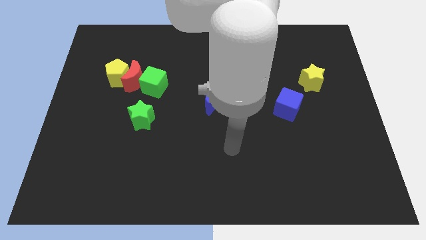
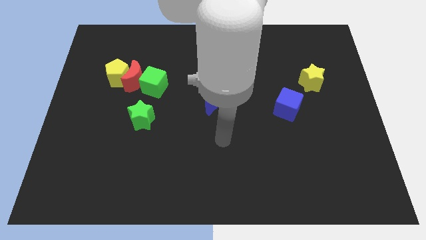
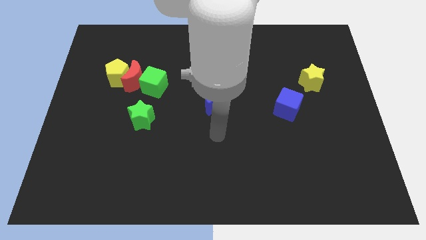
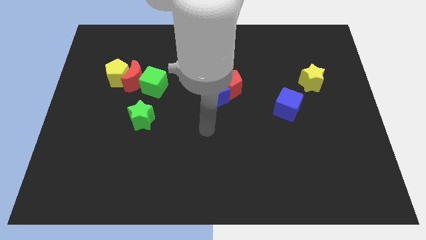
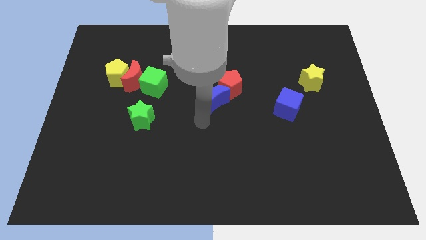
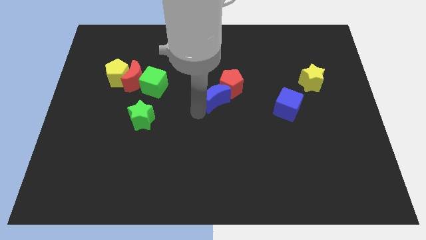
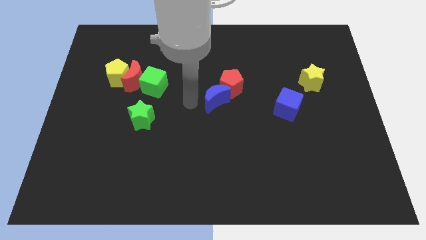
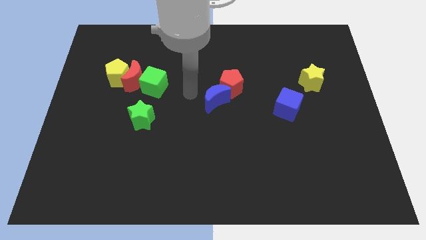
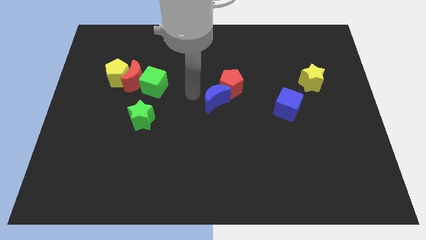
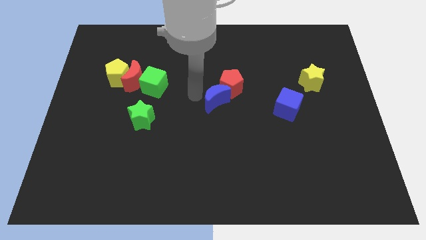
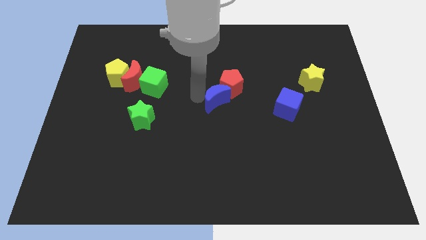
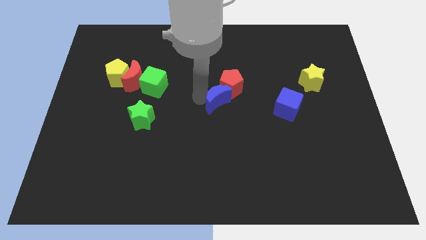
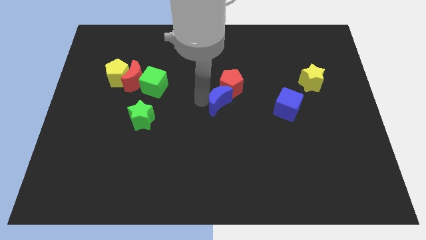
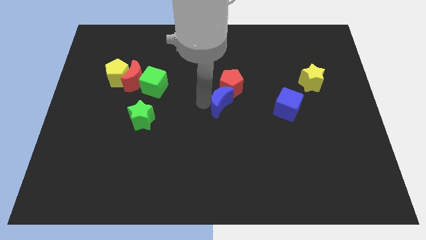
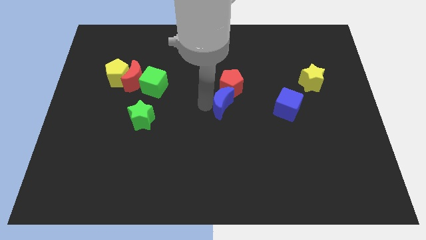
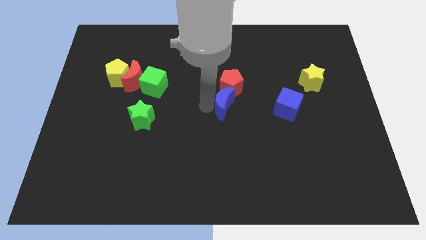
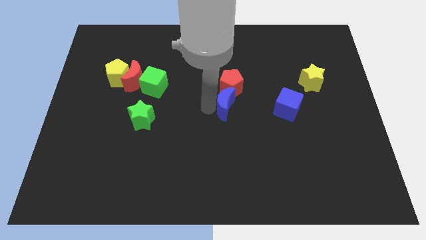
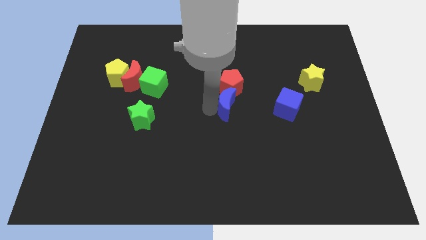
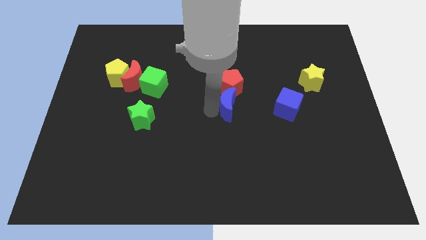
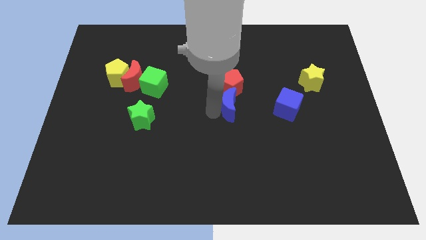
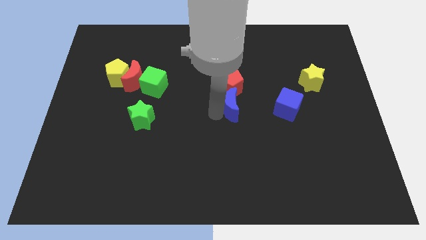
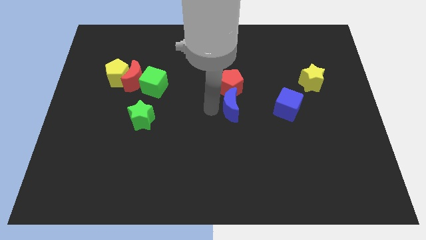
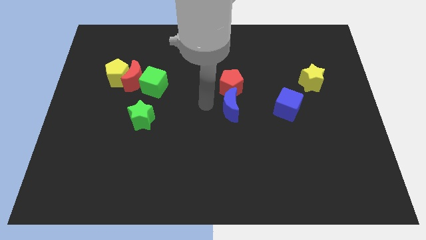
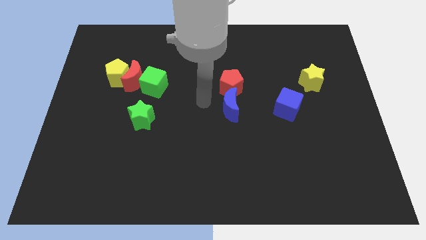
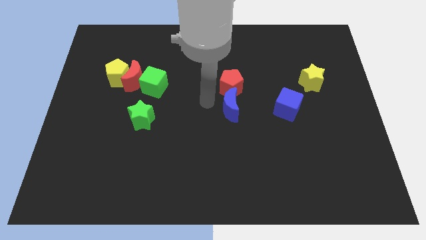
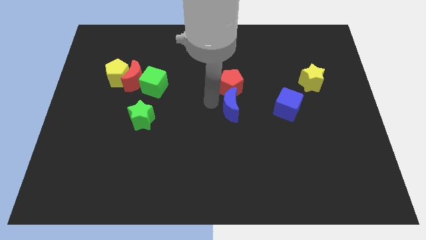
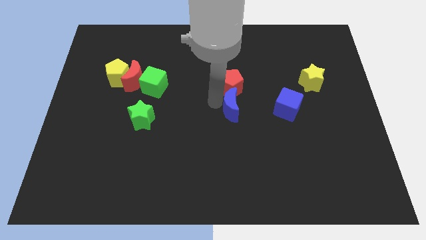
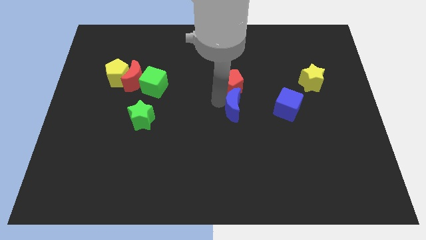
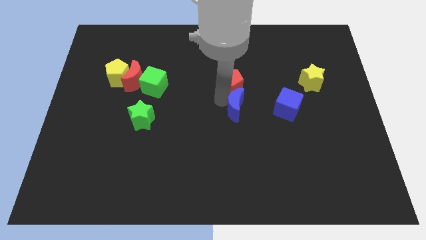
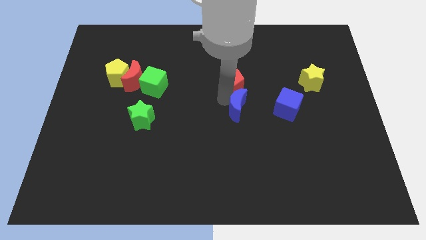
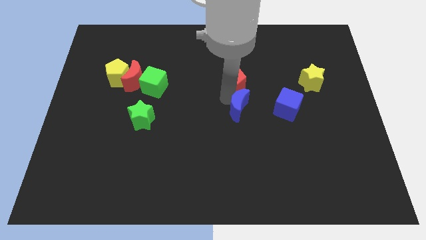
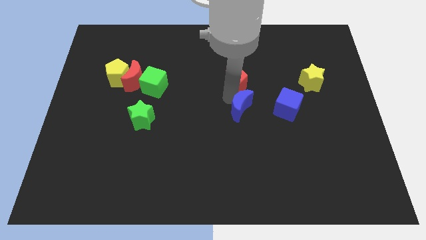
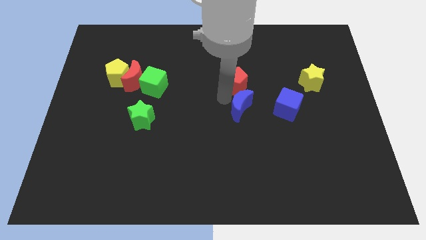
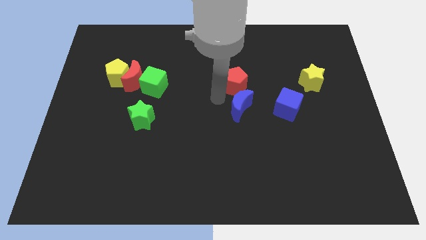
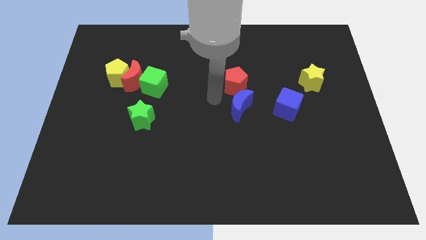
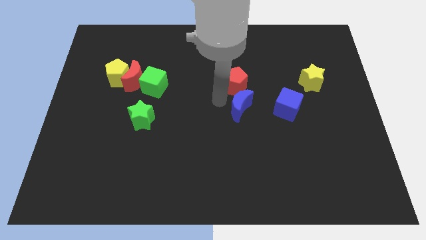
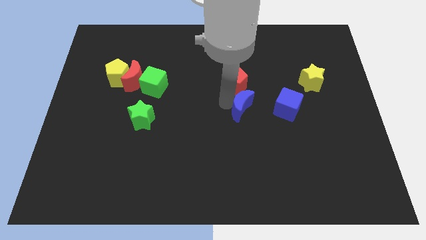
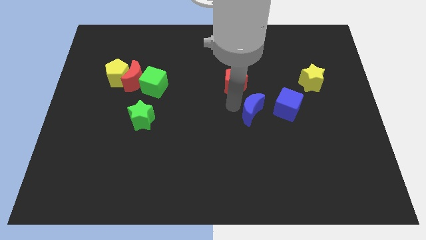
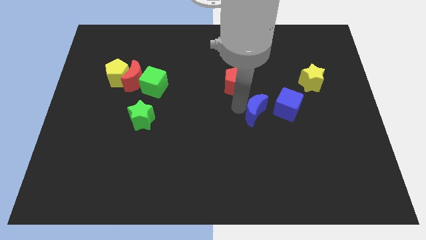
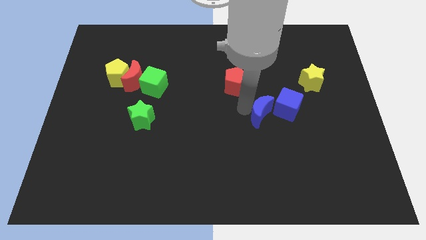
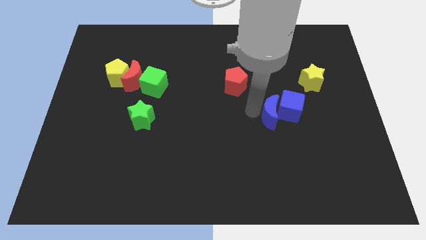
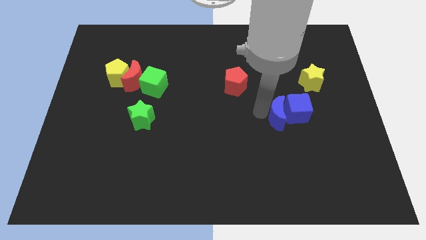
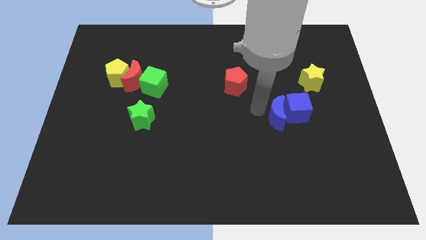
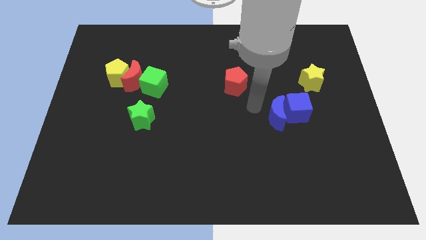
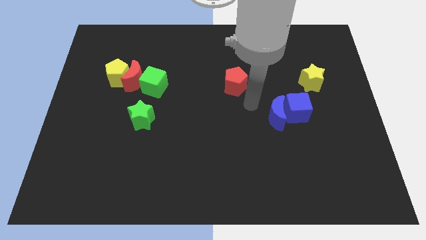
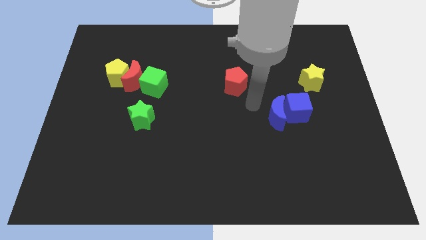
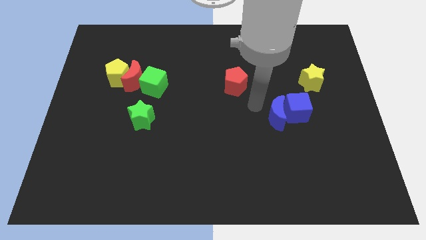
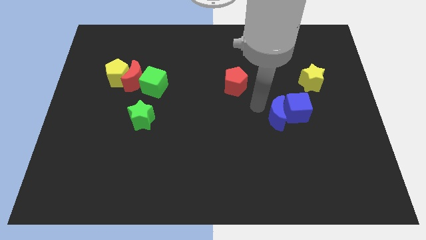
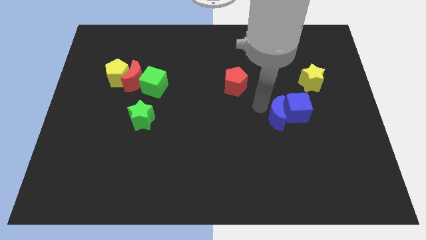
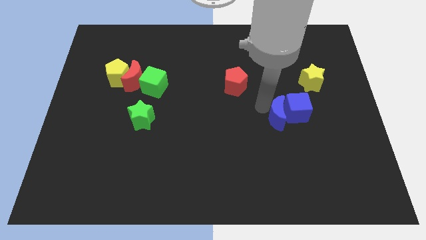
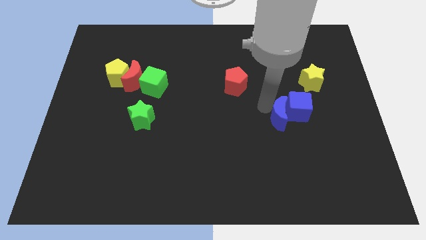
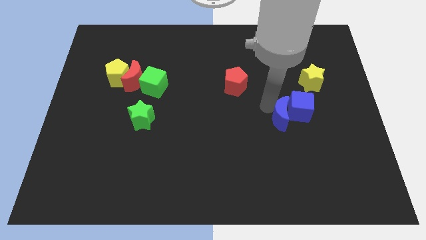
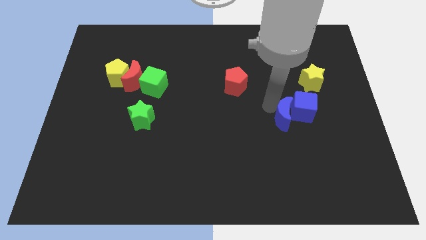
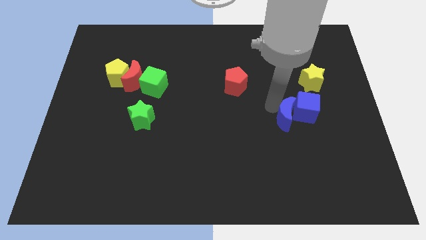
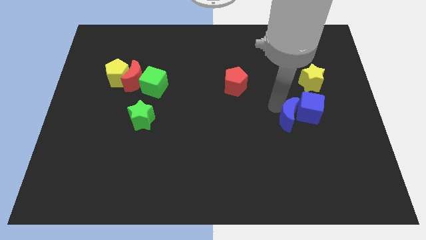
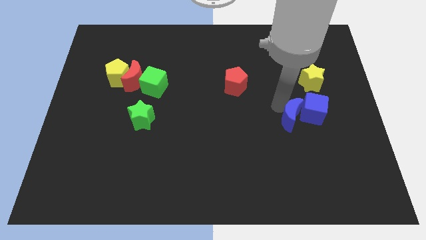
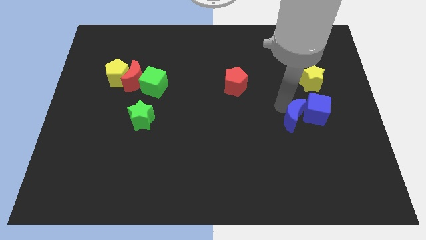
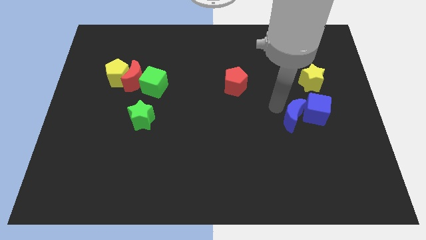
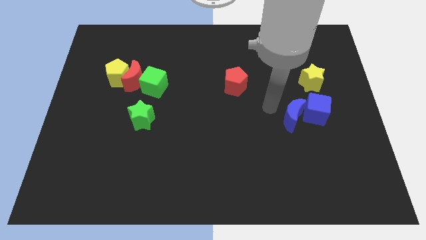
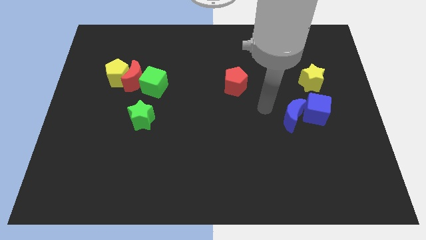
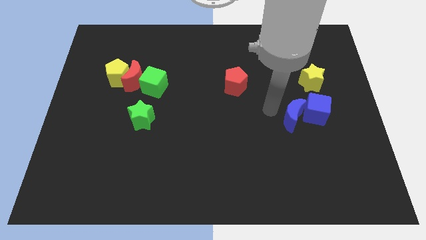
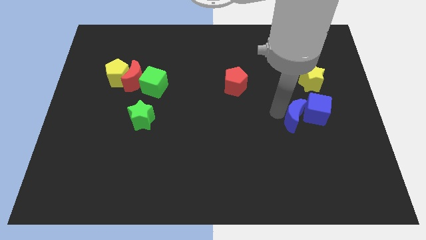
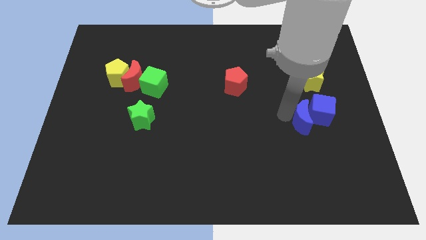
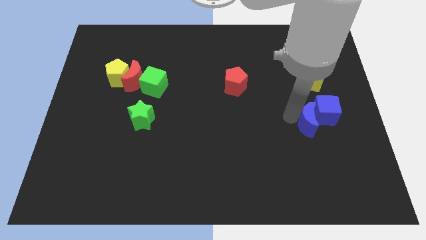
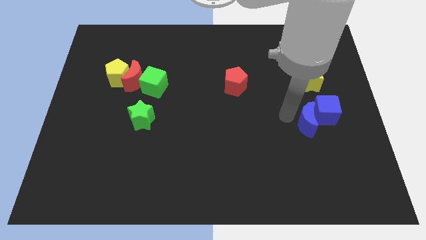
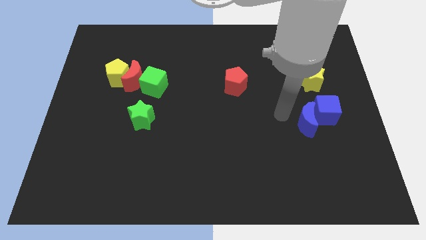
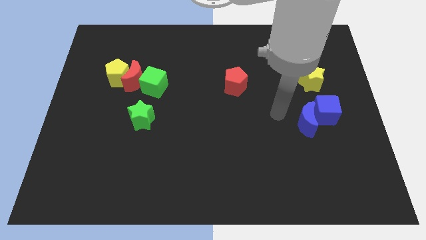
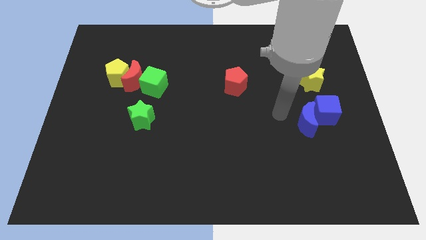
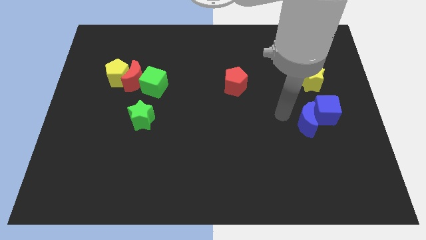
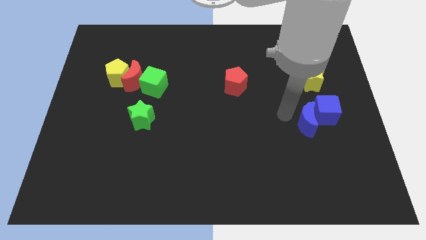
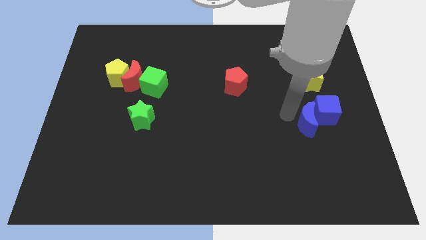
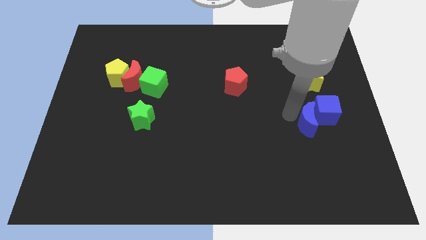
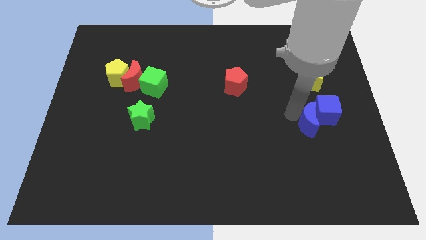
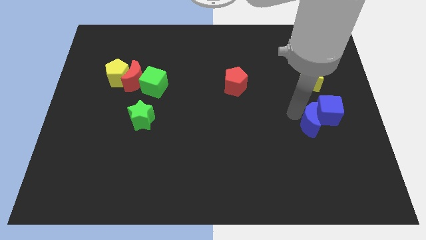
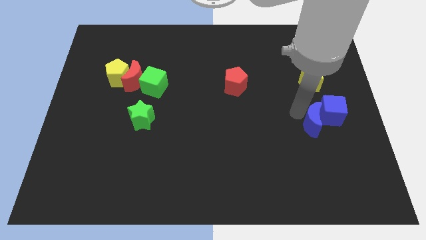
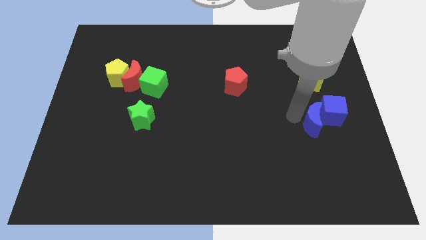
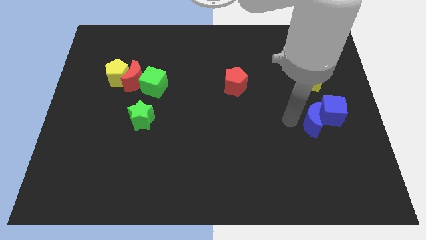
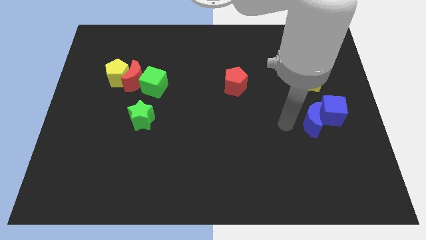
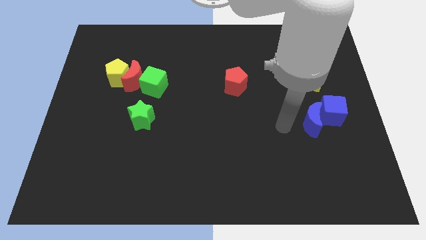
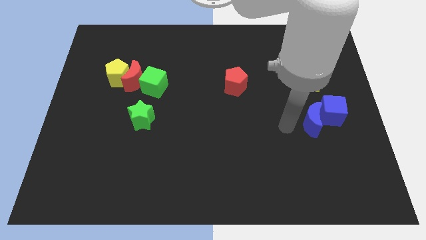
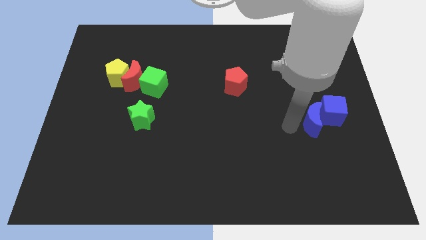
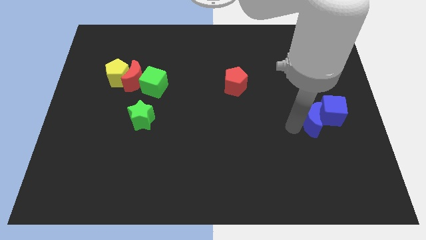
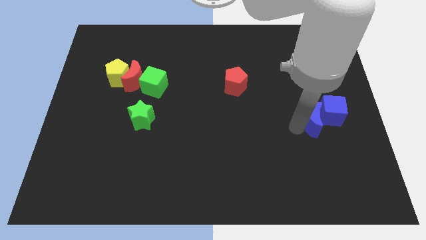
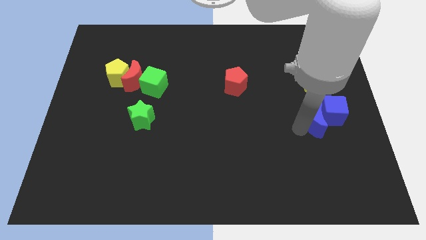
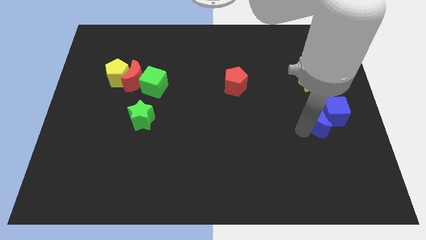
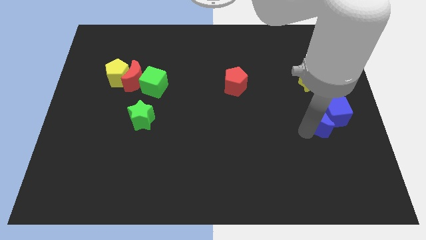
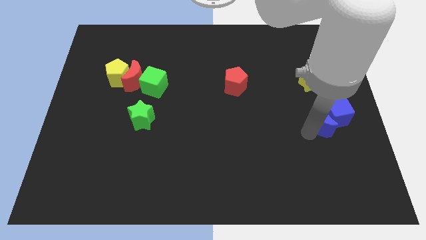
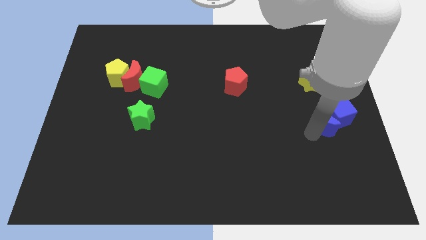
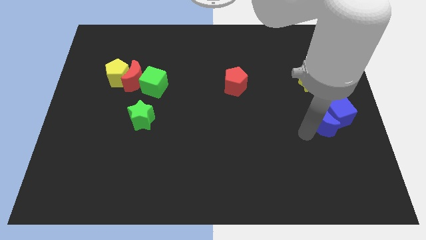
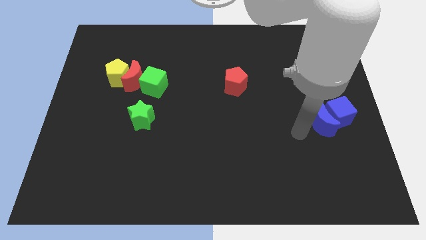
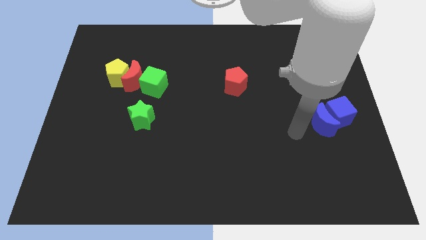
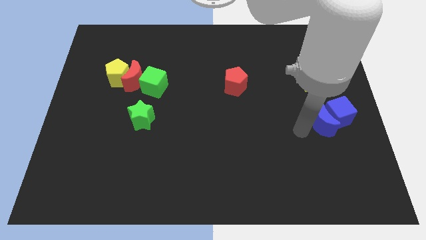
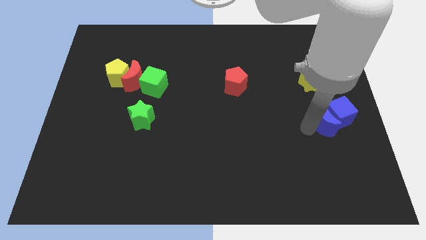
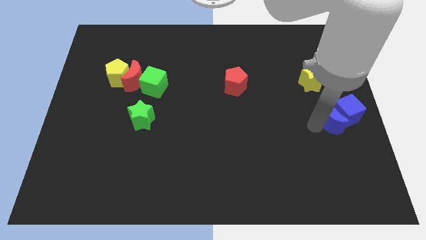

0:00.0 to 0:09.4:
put the blue moon to the right side of the board
